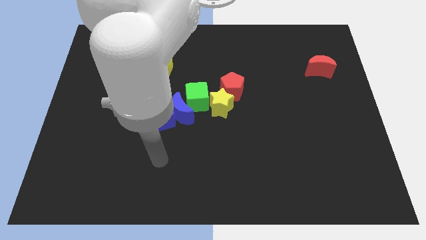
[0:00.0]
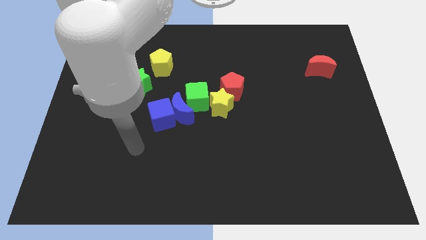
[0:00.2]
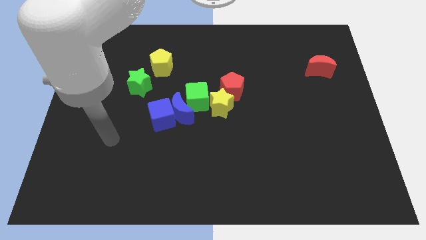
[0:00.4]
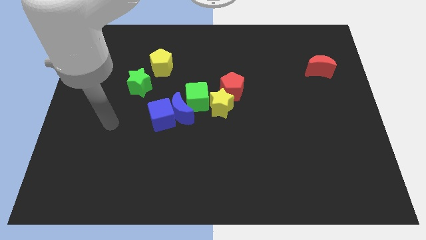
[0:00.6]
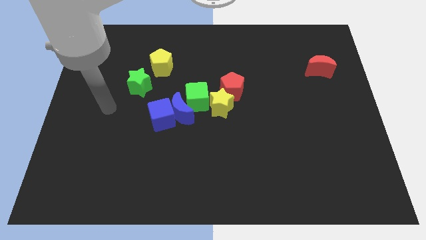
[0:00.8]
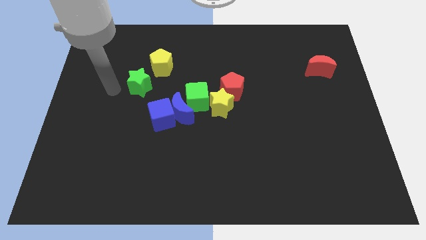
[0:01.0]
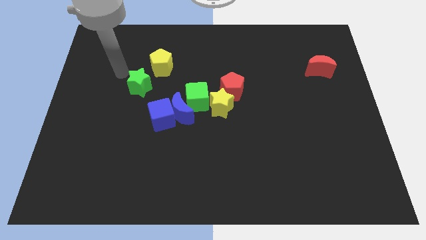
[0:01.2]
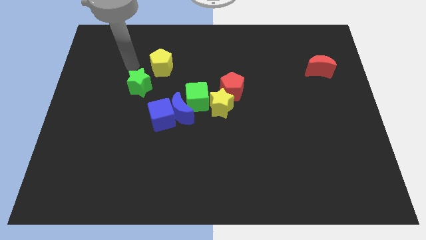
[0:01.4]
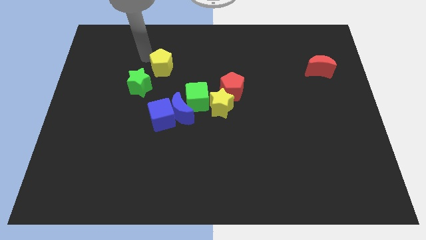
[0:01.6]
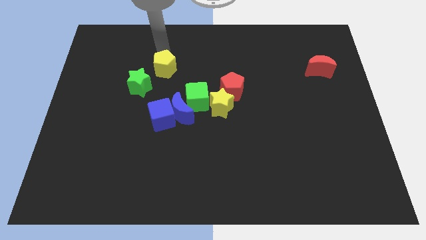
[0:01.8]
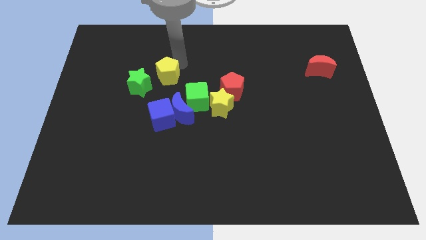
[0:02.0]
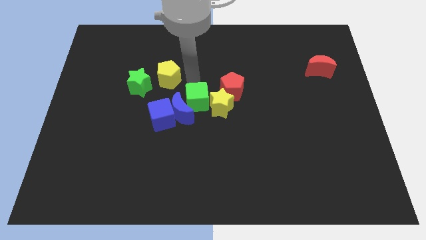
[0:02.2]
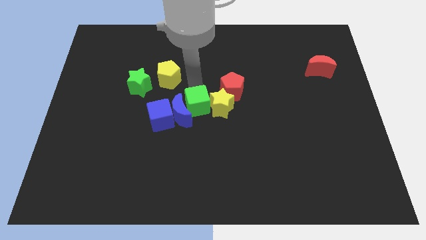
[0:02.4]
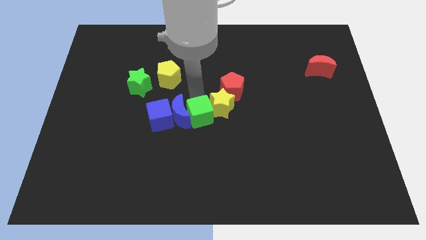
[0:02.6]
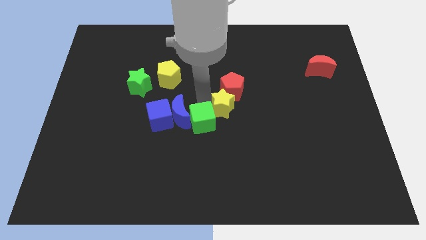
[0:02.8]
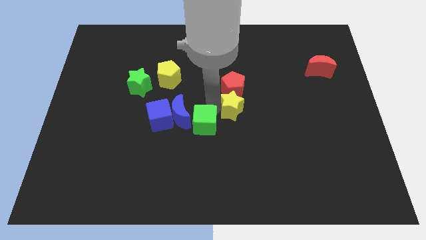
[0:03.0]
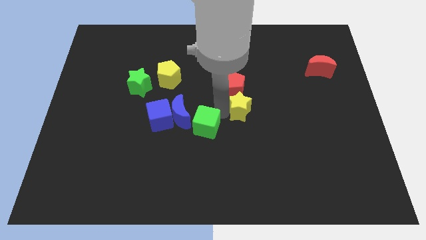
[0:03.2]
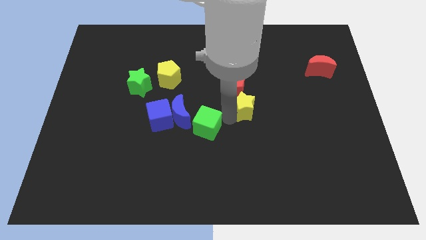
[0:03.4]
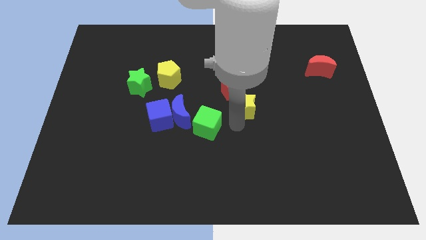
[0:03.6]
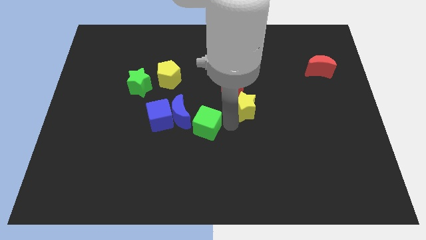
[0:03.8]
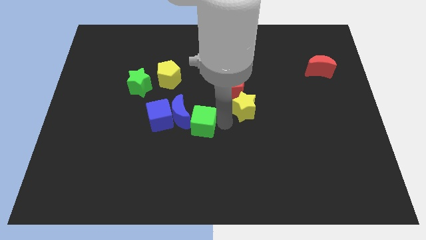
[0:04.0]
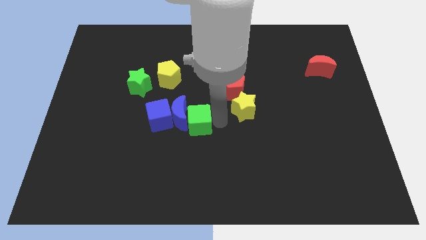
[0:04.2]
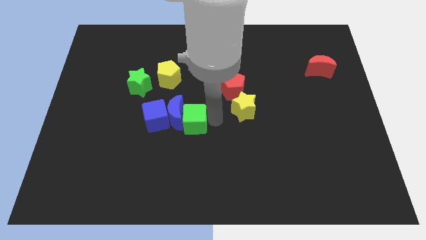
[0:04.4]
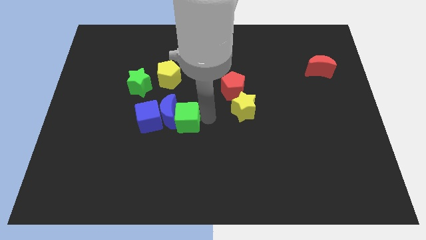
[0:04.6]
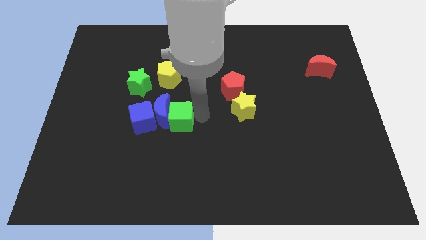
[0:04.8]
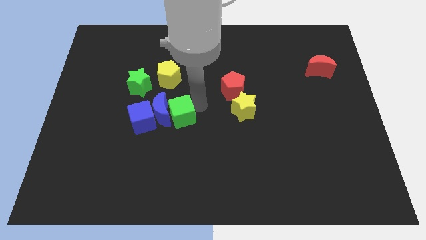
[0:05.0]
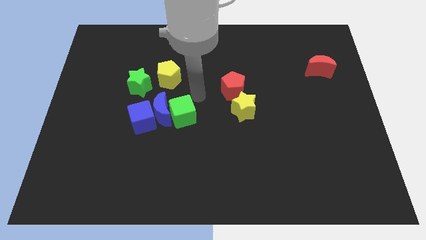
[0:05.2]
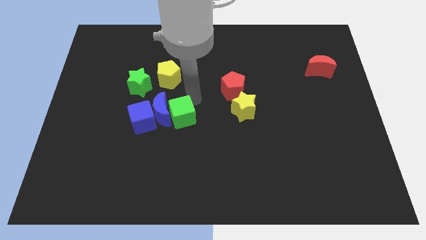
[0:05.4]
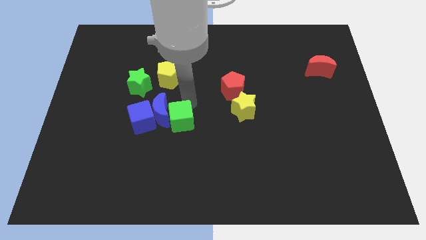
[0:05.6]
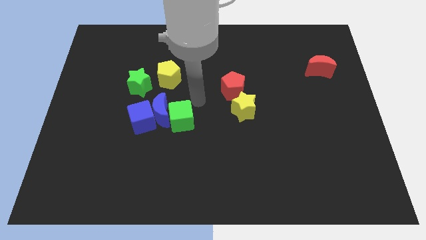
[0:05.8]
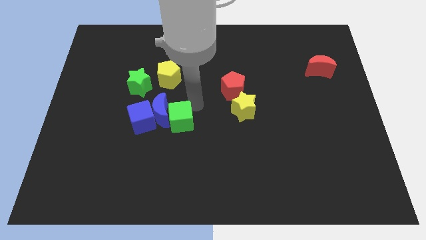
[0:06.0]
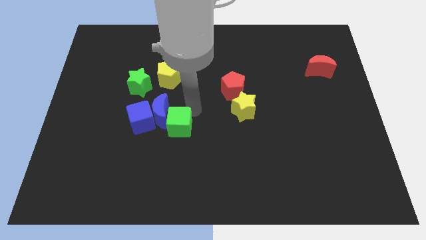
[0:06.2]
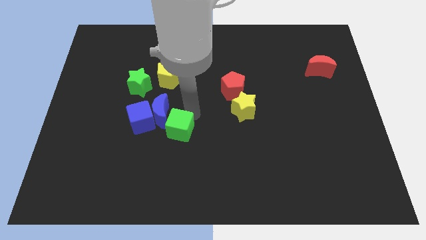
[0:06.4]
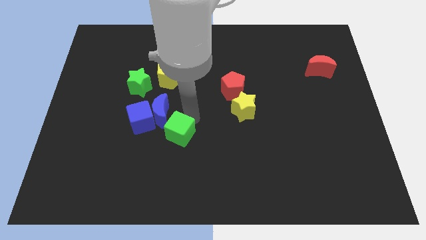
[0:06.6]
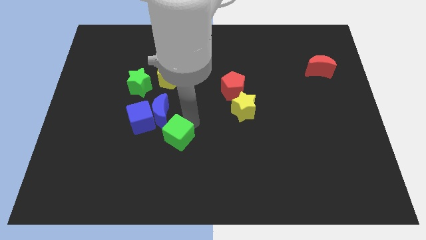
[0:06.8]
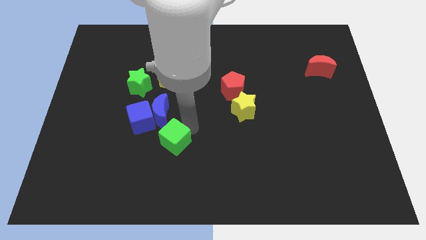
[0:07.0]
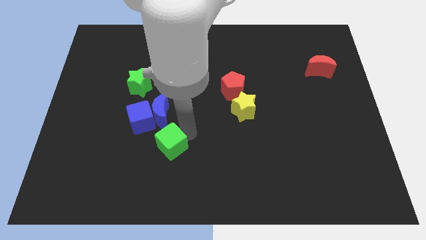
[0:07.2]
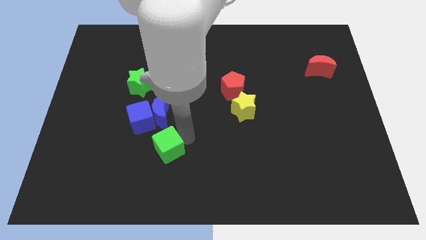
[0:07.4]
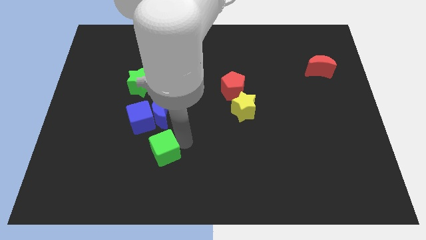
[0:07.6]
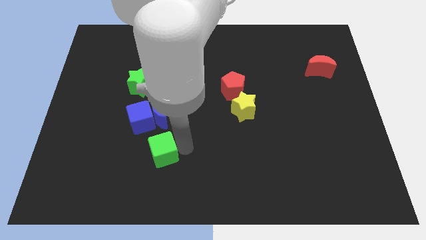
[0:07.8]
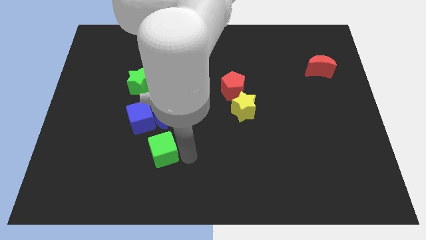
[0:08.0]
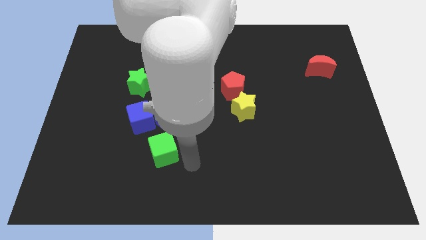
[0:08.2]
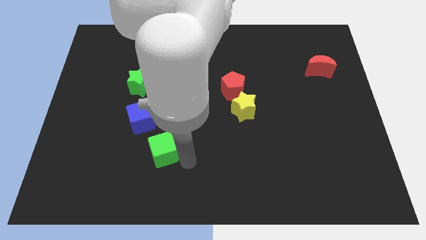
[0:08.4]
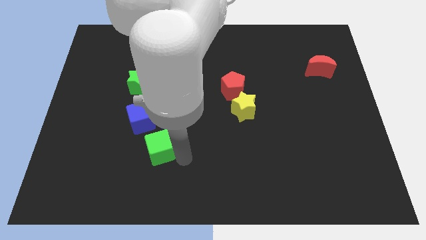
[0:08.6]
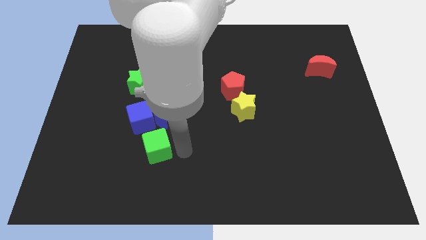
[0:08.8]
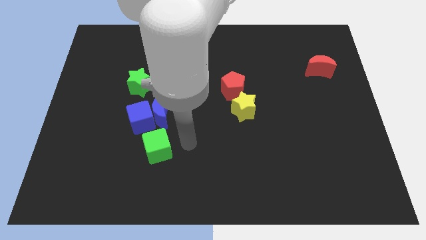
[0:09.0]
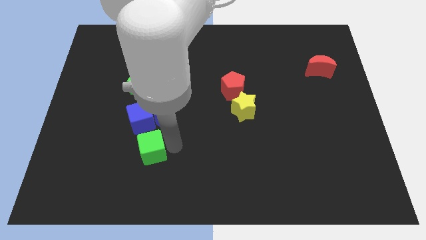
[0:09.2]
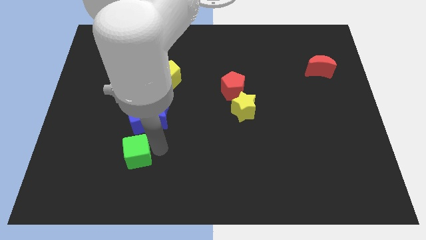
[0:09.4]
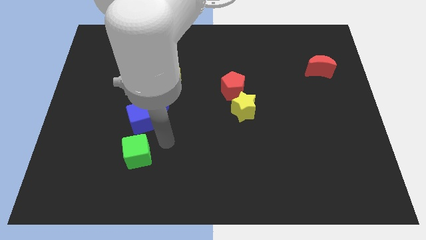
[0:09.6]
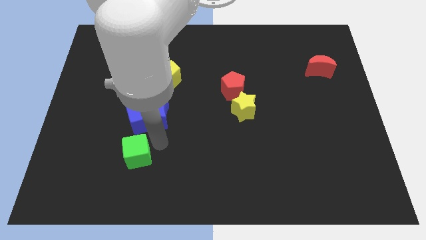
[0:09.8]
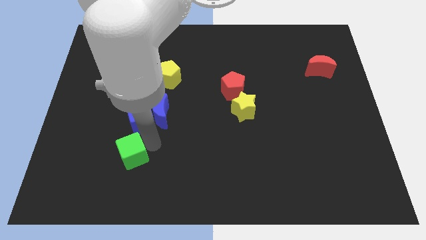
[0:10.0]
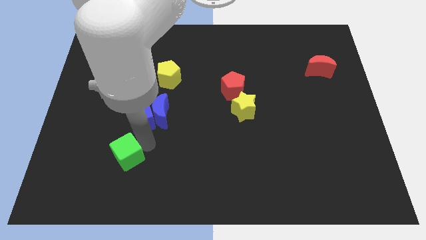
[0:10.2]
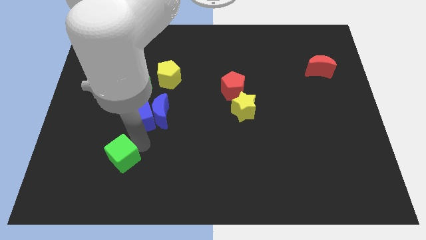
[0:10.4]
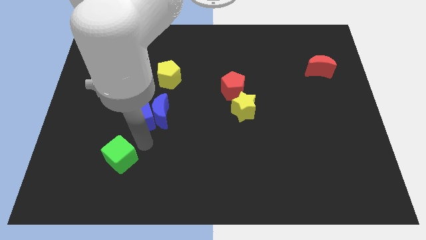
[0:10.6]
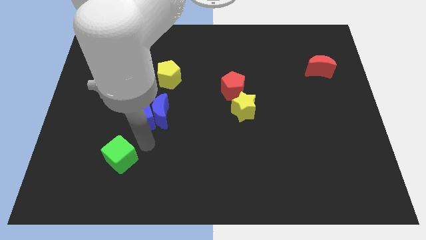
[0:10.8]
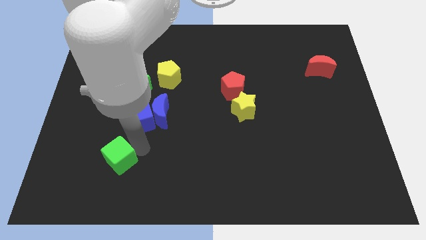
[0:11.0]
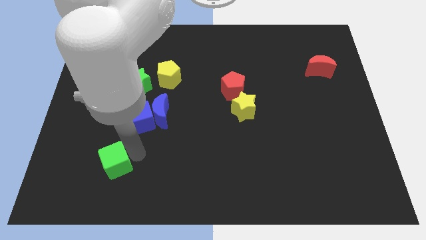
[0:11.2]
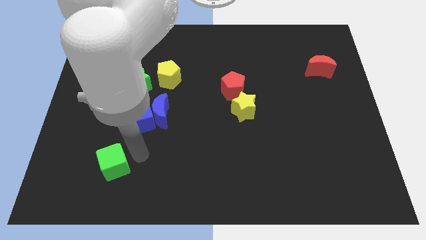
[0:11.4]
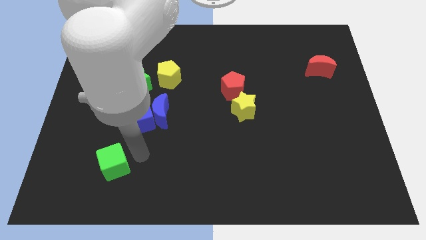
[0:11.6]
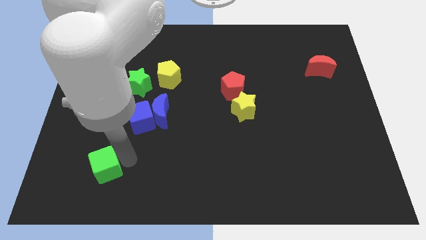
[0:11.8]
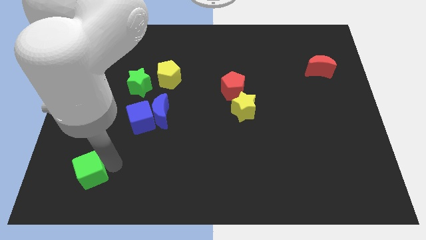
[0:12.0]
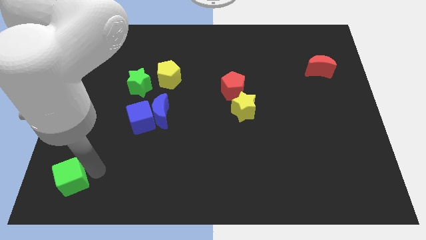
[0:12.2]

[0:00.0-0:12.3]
push the green cube to the bottom left corner
